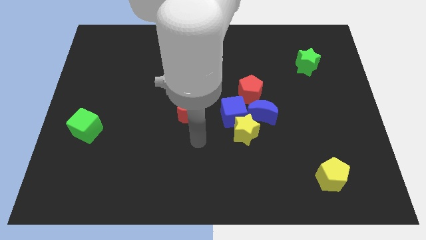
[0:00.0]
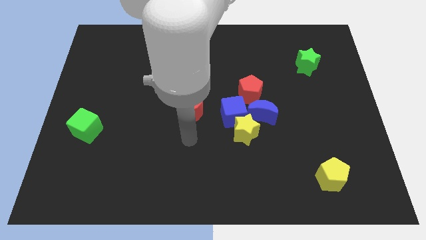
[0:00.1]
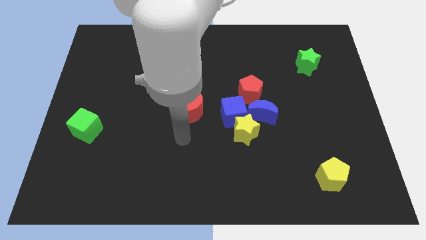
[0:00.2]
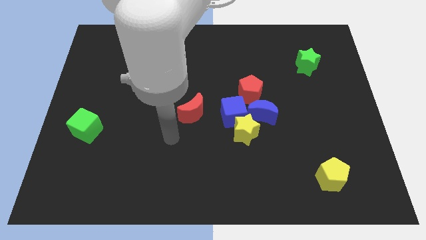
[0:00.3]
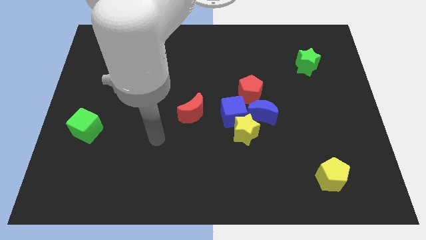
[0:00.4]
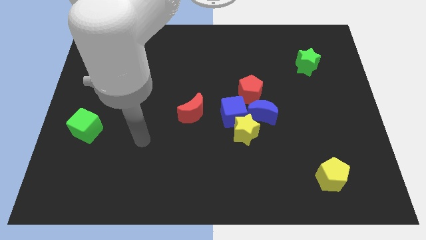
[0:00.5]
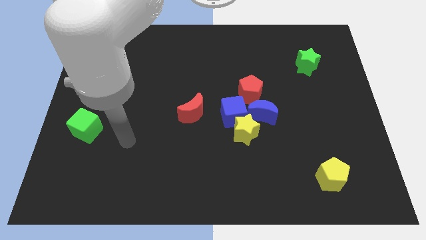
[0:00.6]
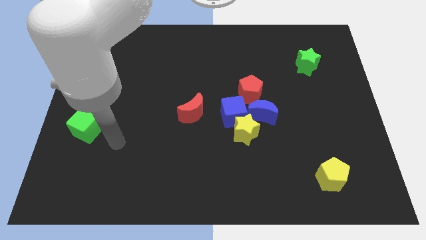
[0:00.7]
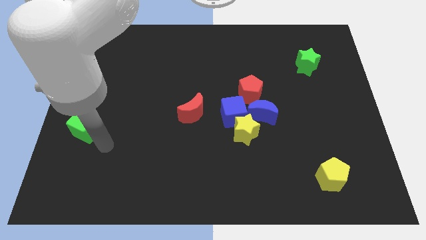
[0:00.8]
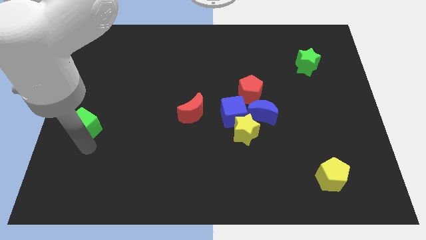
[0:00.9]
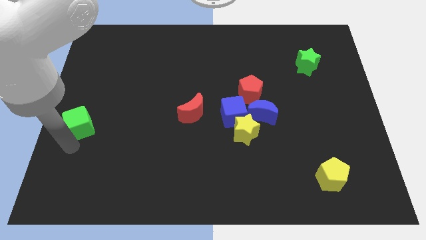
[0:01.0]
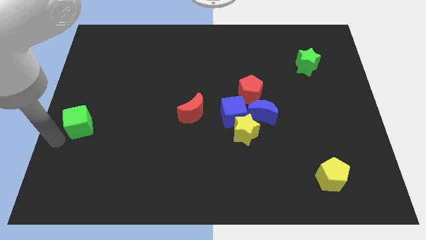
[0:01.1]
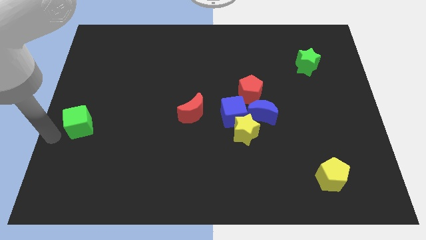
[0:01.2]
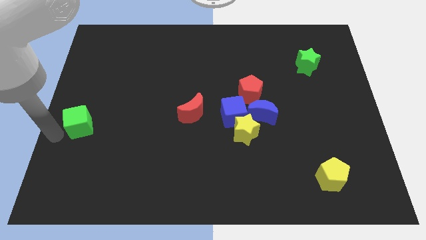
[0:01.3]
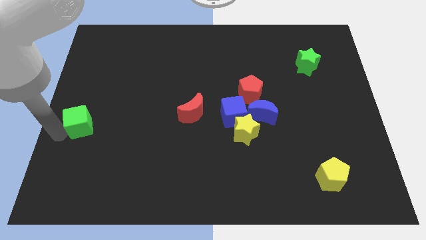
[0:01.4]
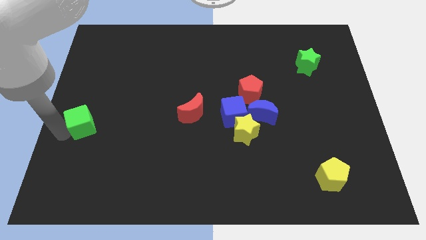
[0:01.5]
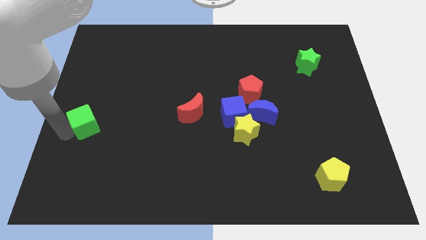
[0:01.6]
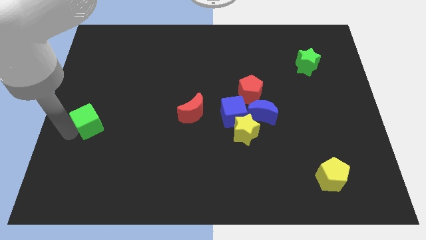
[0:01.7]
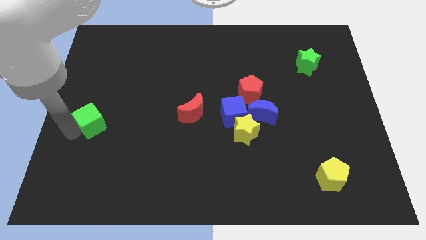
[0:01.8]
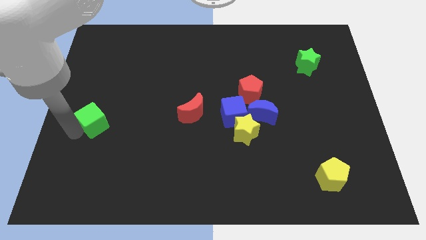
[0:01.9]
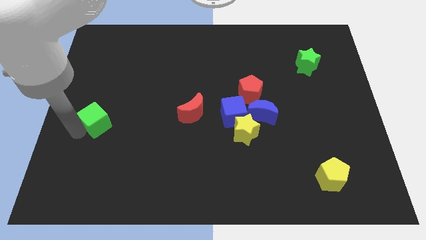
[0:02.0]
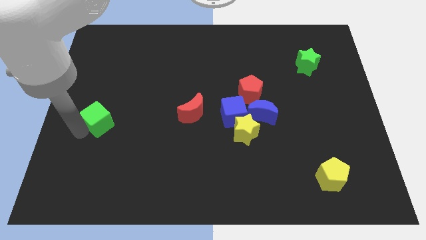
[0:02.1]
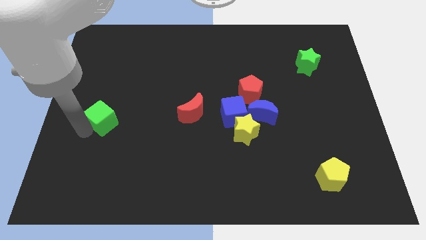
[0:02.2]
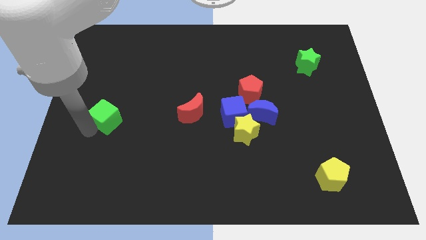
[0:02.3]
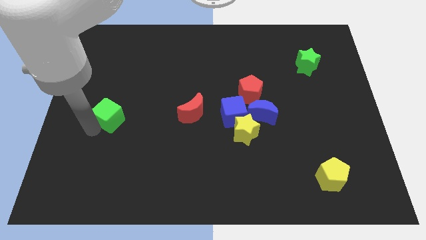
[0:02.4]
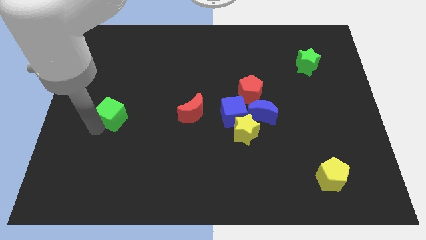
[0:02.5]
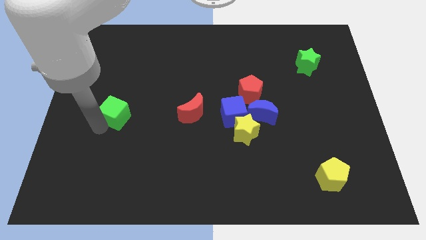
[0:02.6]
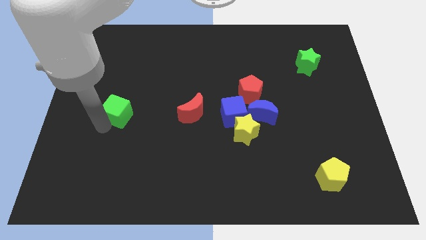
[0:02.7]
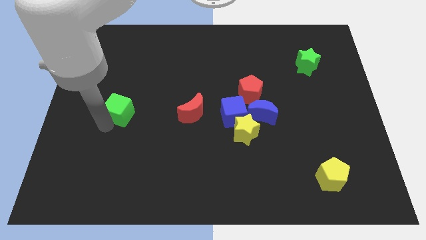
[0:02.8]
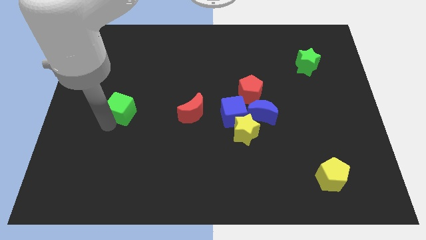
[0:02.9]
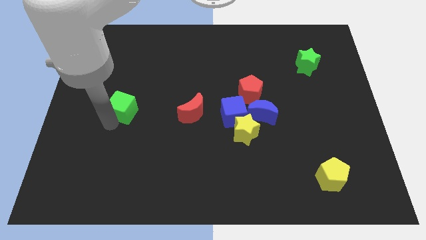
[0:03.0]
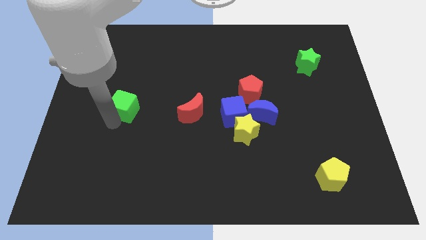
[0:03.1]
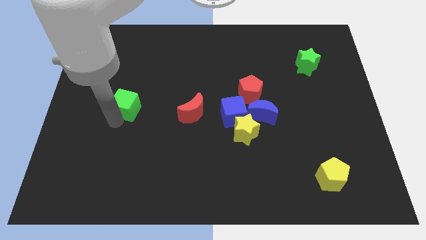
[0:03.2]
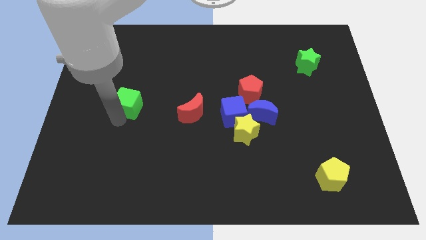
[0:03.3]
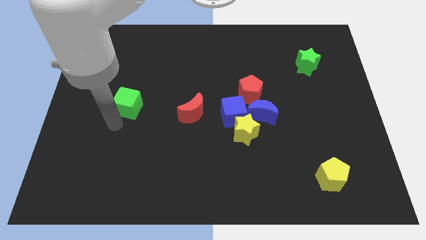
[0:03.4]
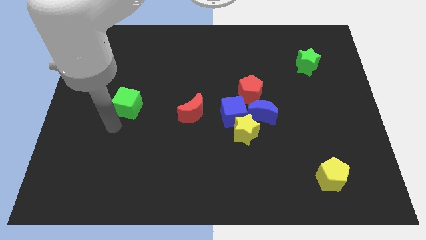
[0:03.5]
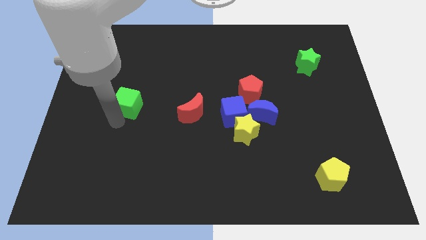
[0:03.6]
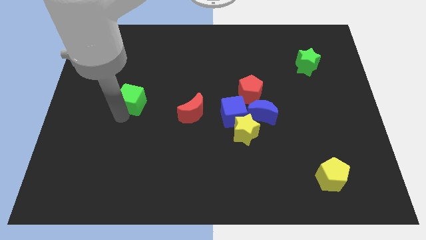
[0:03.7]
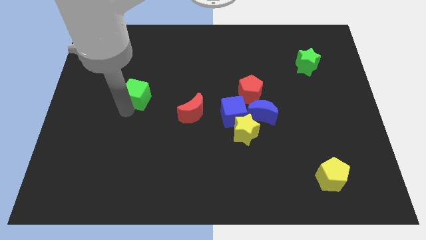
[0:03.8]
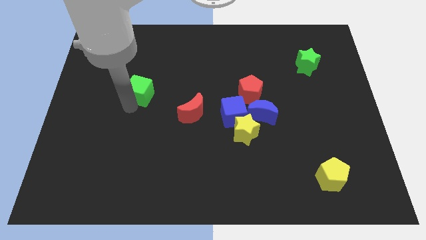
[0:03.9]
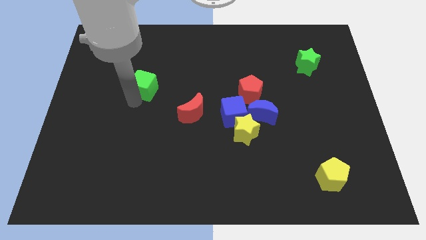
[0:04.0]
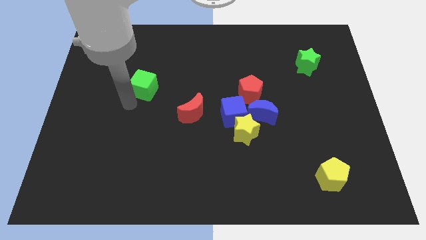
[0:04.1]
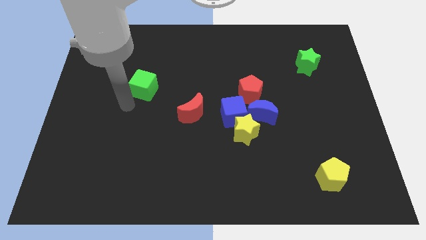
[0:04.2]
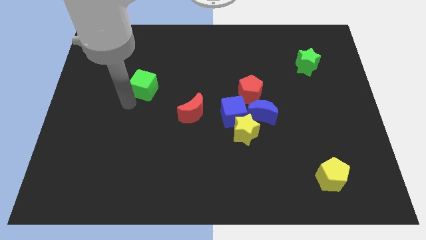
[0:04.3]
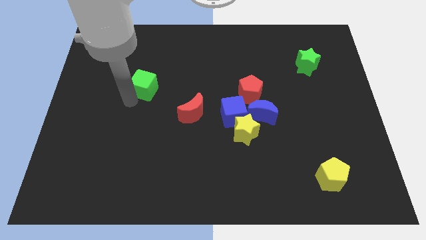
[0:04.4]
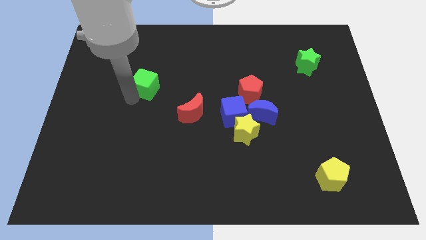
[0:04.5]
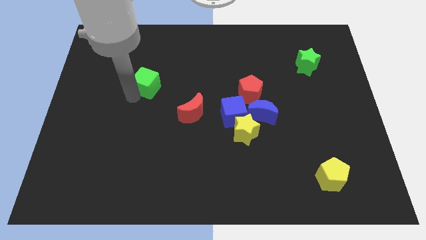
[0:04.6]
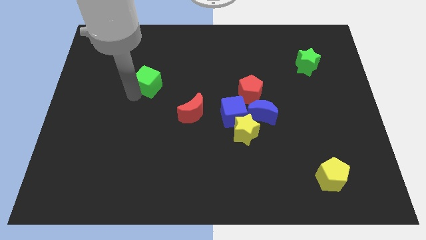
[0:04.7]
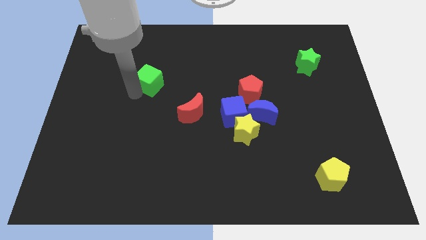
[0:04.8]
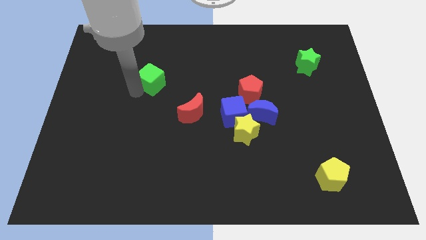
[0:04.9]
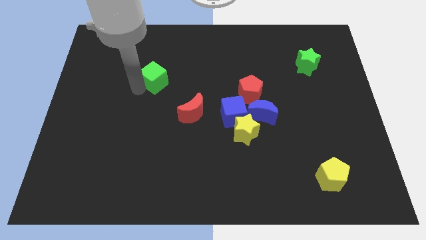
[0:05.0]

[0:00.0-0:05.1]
move the green cube upwards and then to the right

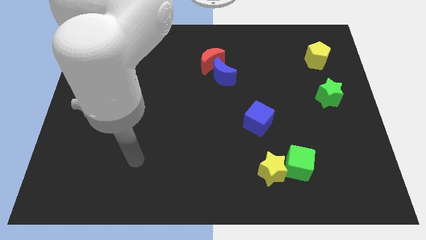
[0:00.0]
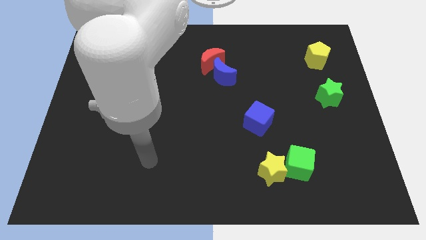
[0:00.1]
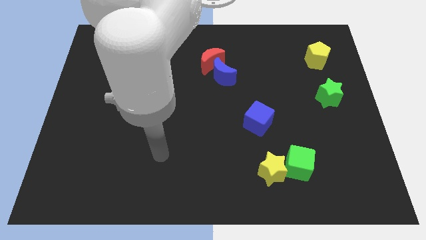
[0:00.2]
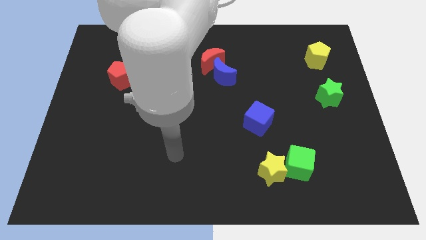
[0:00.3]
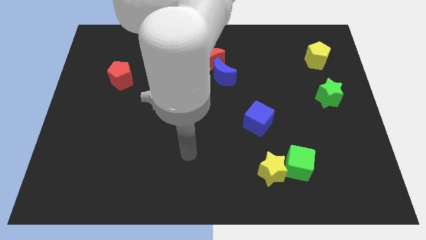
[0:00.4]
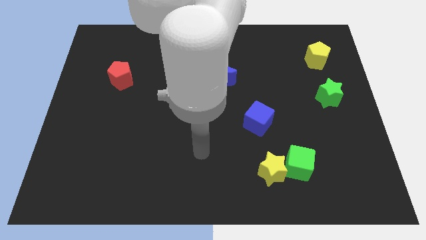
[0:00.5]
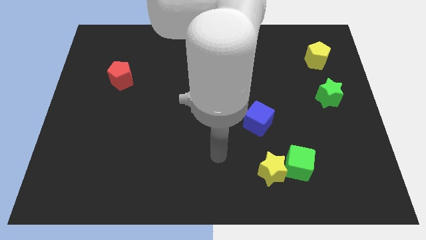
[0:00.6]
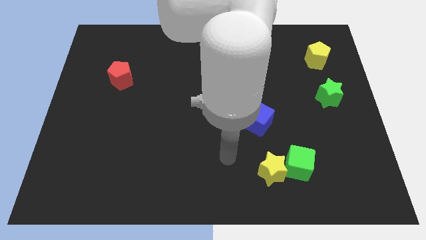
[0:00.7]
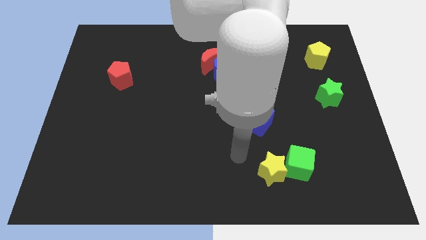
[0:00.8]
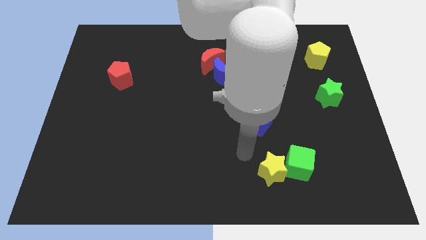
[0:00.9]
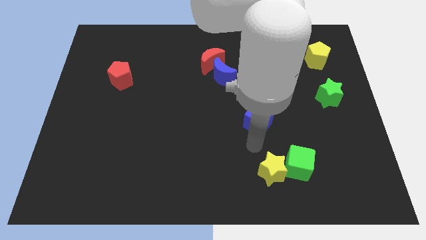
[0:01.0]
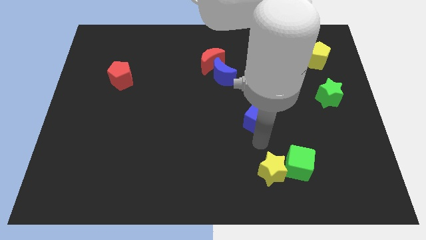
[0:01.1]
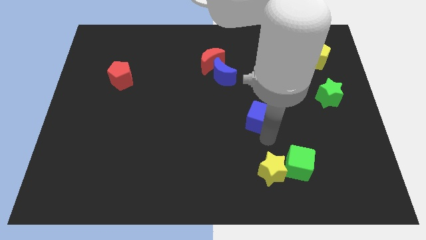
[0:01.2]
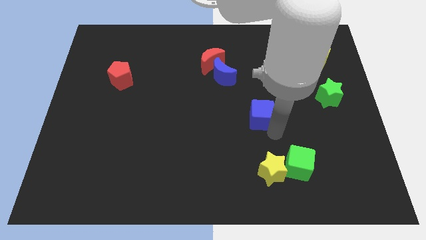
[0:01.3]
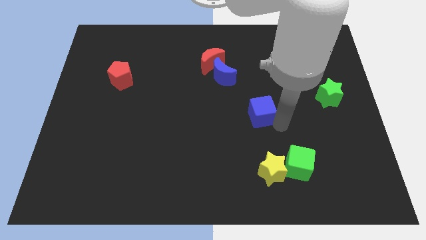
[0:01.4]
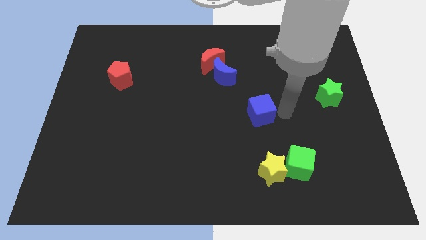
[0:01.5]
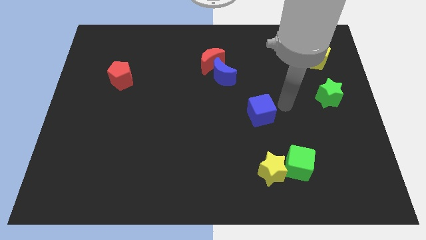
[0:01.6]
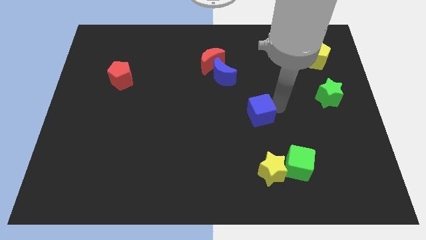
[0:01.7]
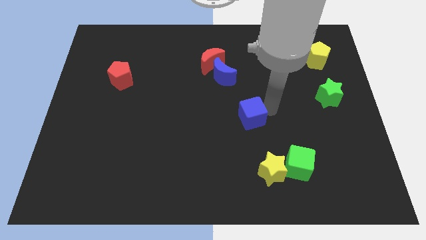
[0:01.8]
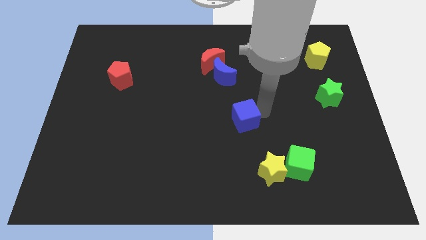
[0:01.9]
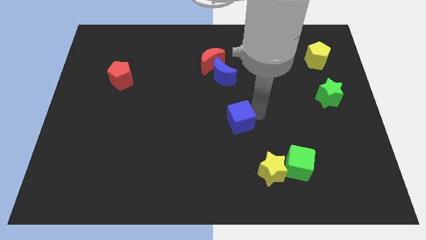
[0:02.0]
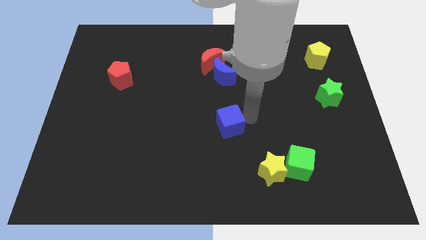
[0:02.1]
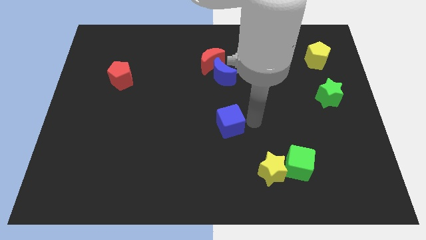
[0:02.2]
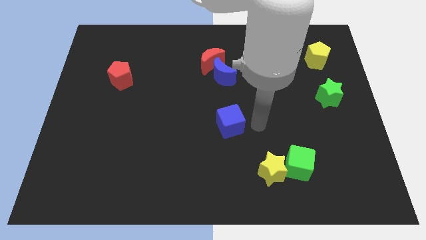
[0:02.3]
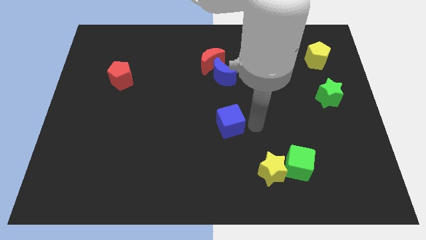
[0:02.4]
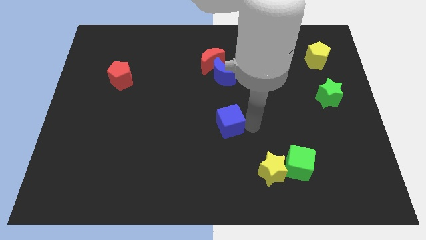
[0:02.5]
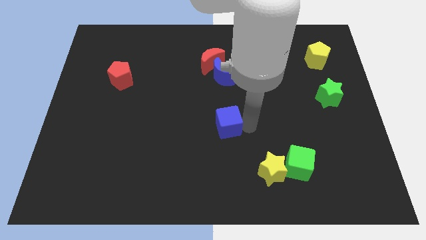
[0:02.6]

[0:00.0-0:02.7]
slightly push the blue cube to the left

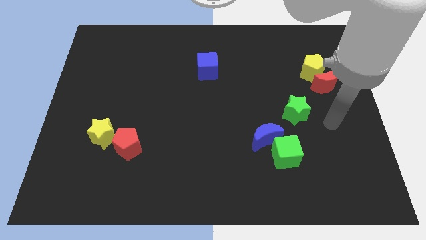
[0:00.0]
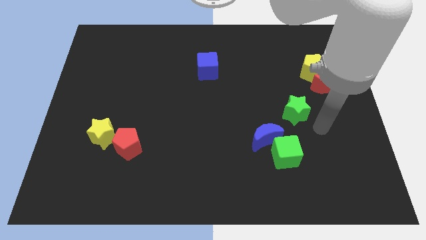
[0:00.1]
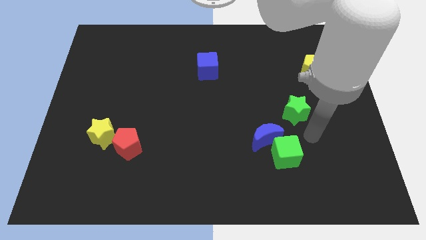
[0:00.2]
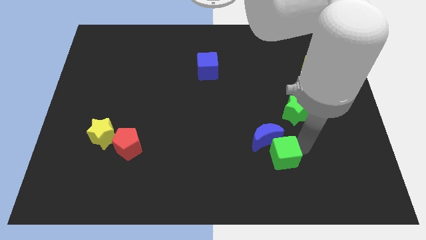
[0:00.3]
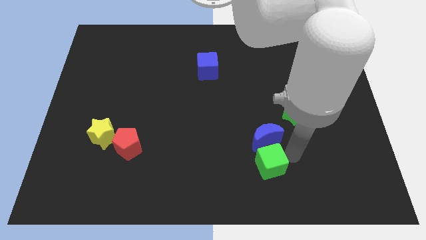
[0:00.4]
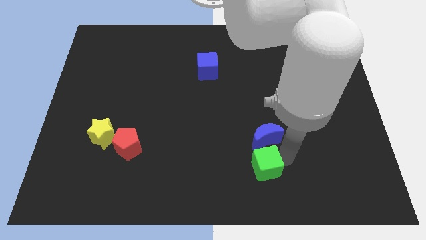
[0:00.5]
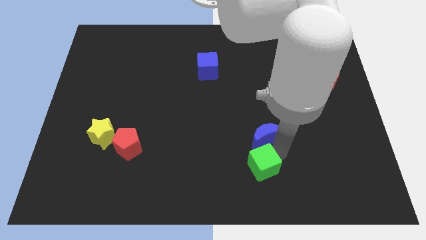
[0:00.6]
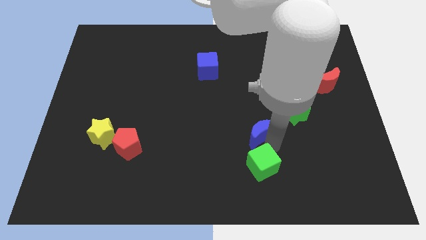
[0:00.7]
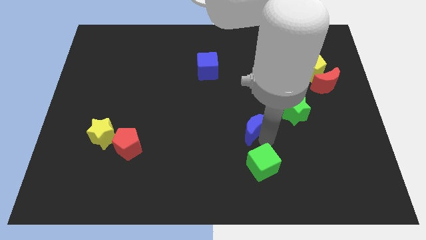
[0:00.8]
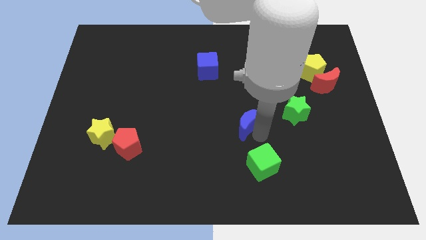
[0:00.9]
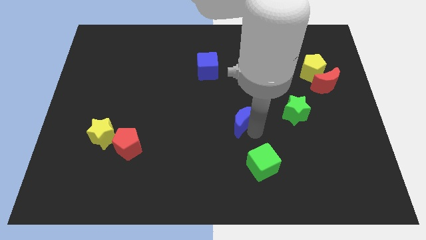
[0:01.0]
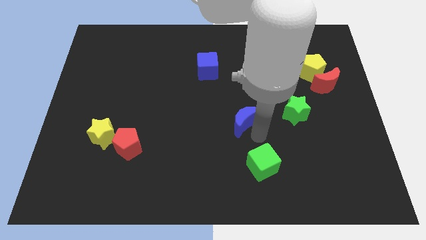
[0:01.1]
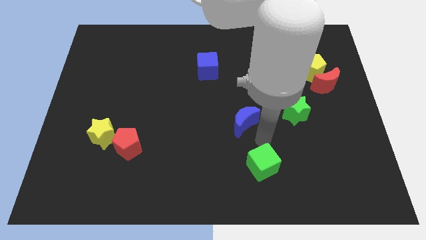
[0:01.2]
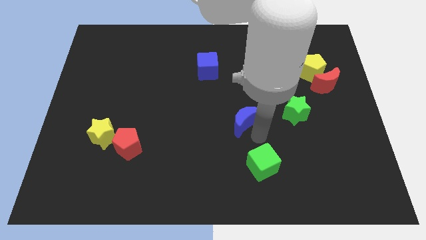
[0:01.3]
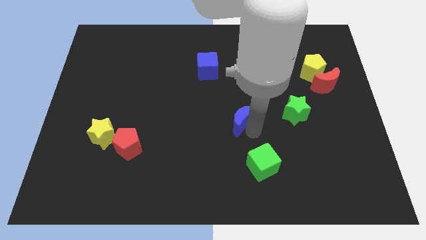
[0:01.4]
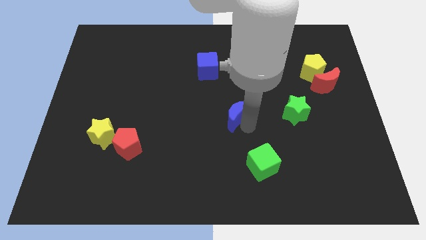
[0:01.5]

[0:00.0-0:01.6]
move the blue moon diagonally up and left slightly
